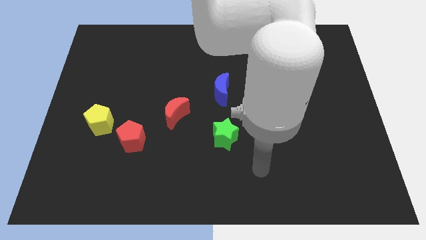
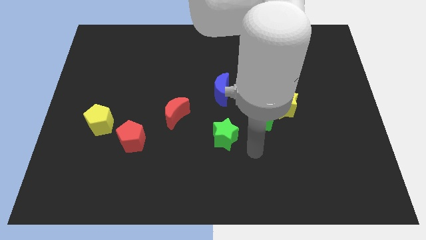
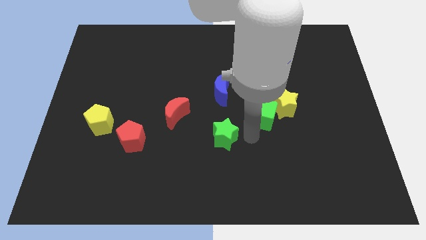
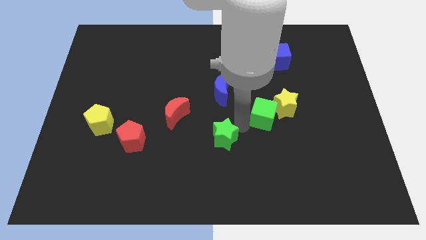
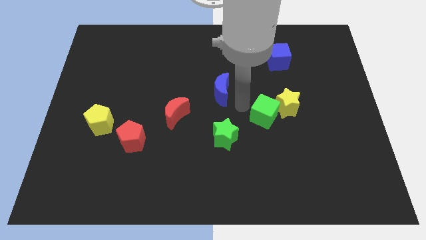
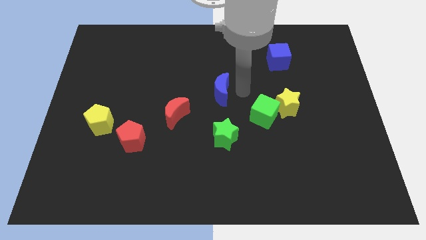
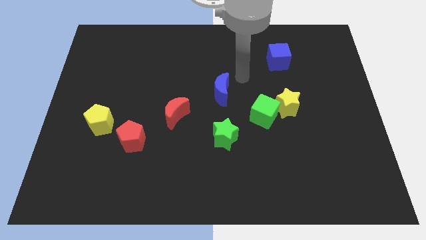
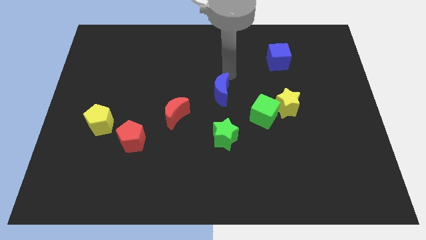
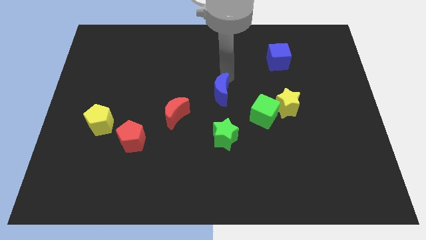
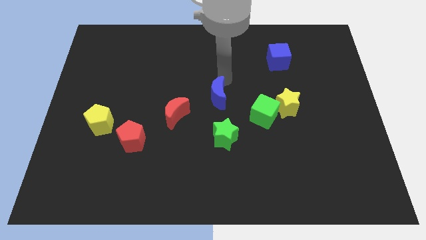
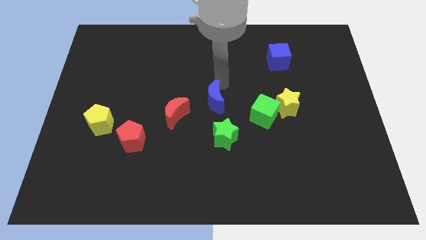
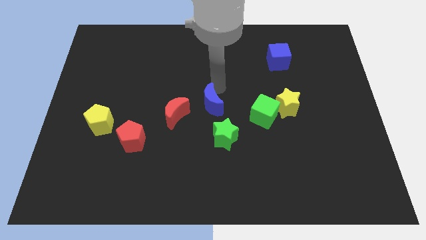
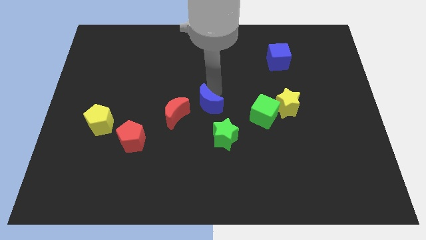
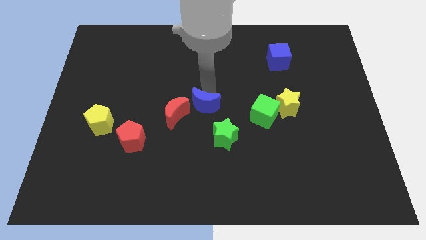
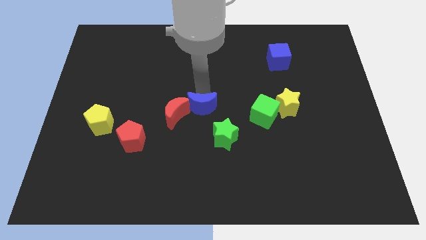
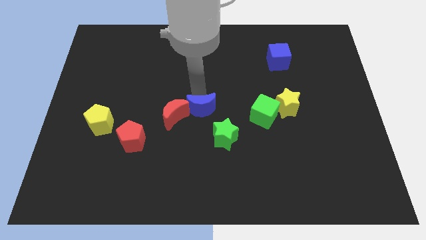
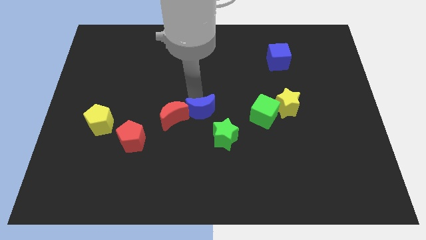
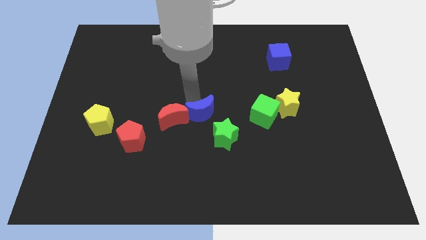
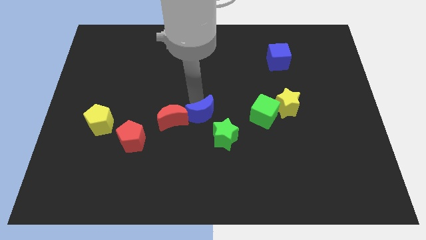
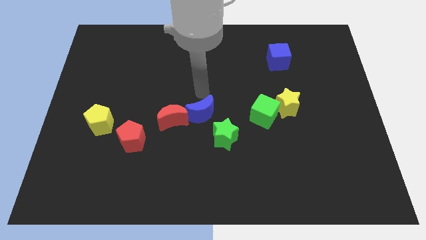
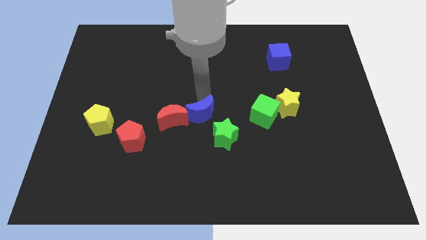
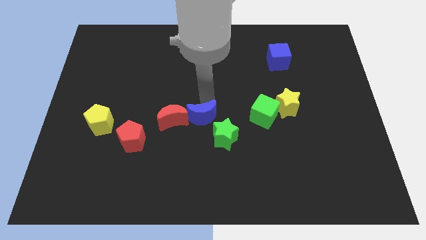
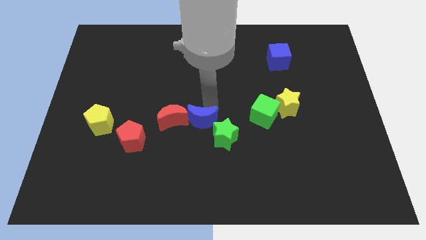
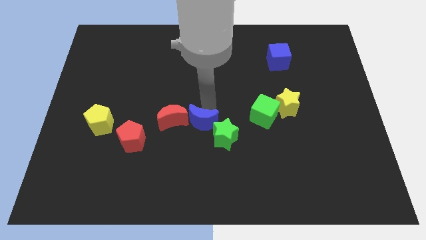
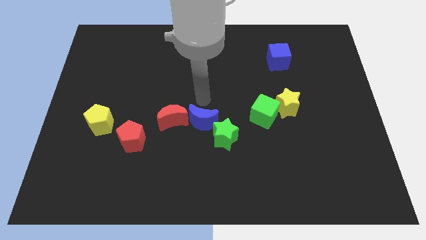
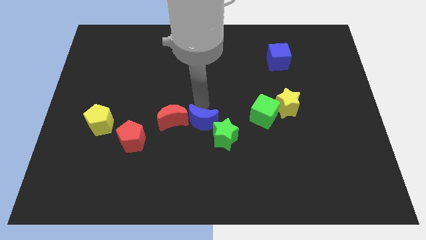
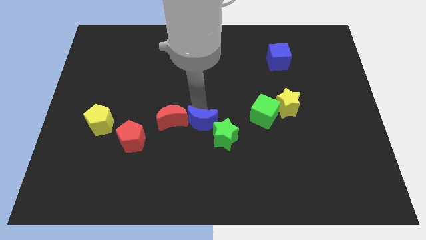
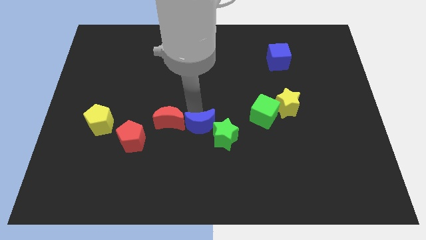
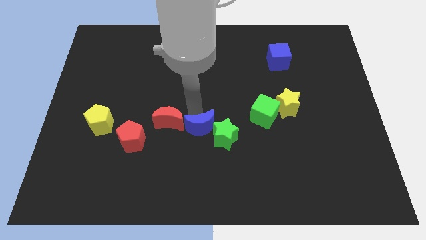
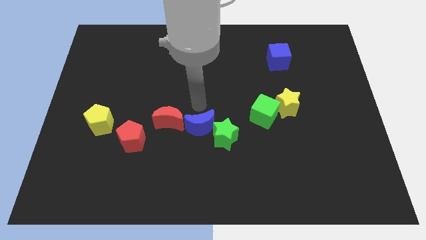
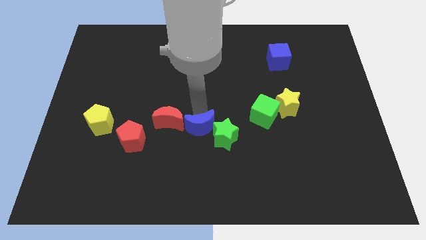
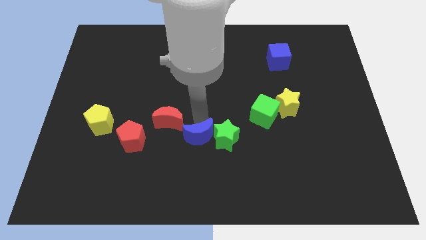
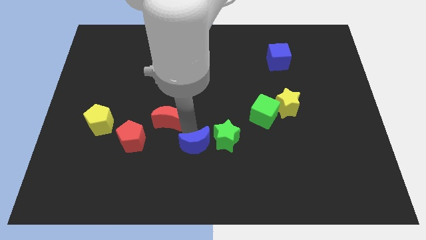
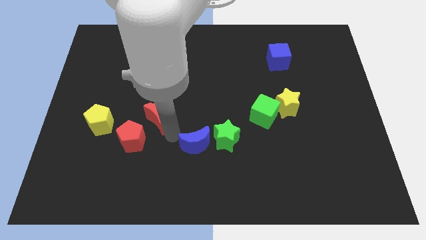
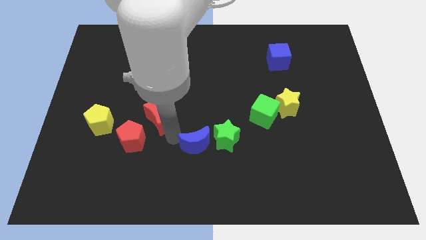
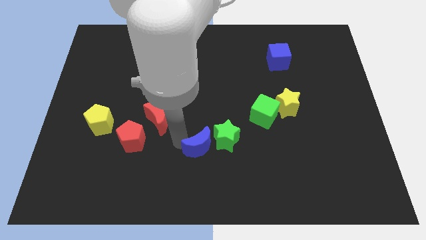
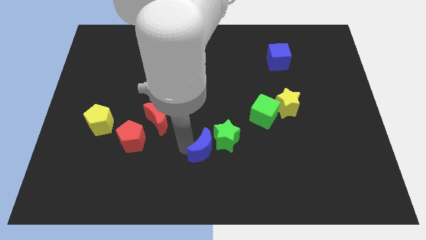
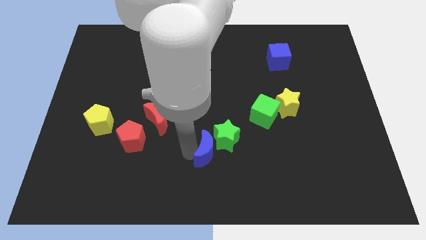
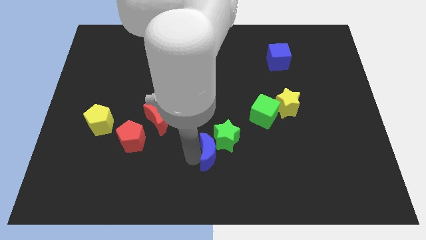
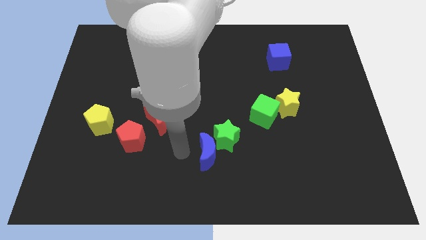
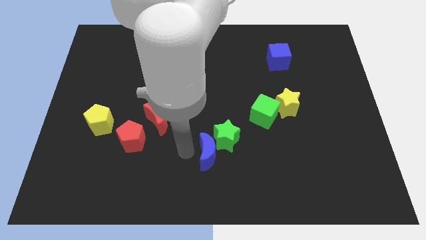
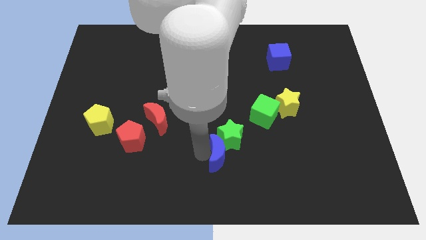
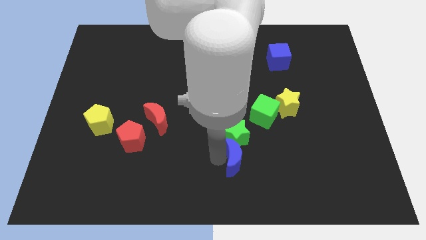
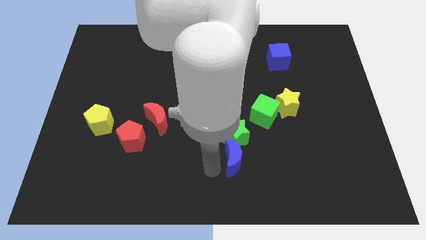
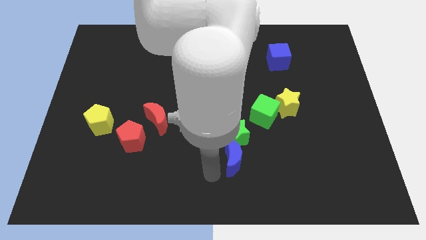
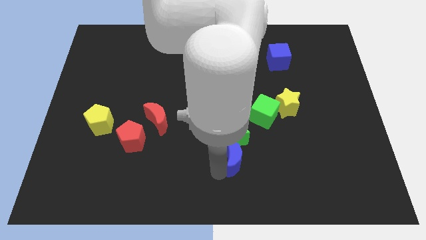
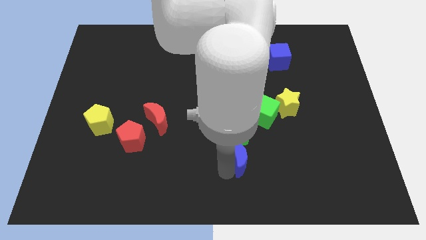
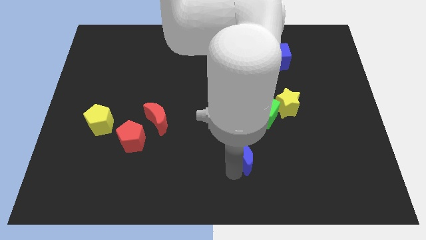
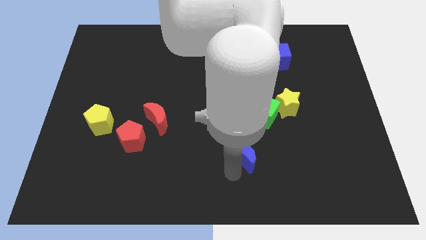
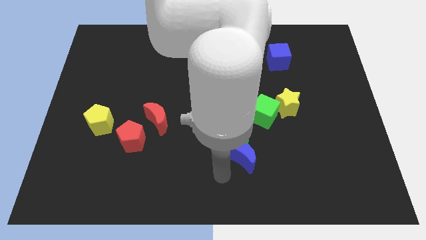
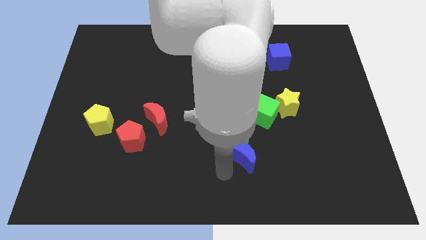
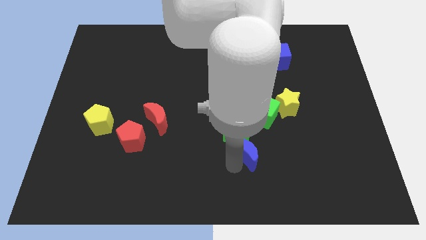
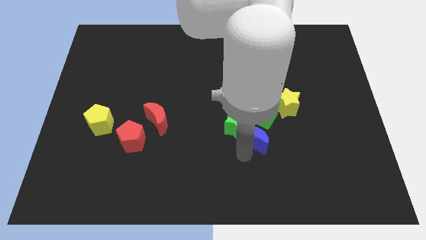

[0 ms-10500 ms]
push the blue moon to the right side of the green star

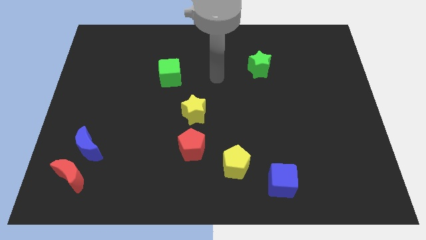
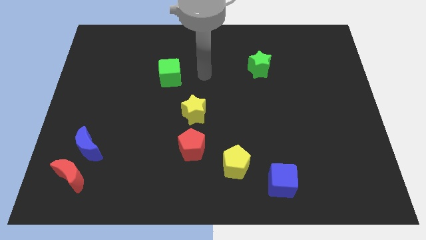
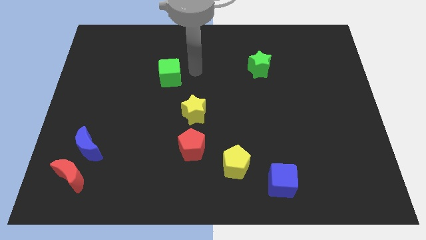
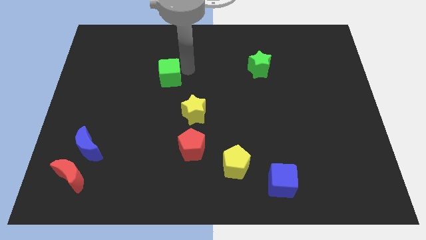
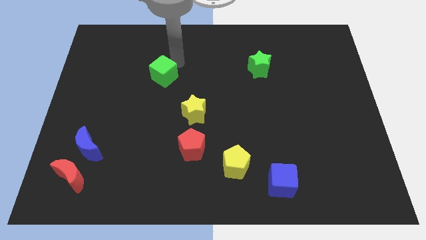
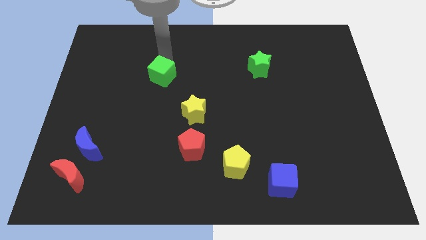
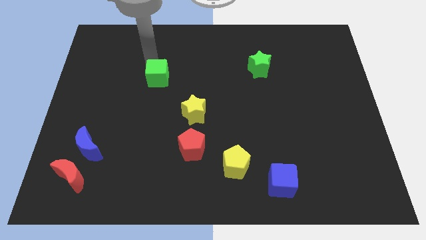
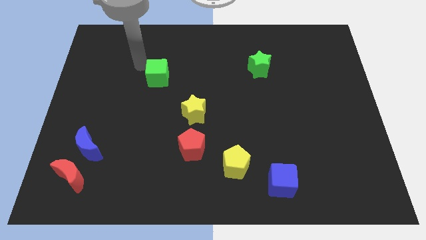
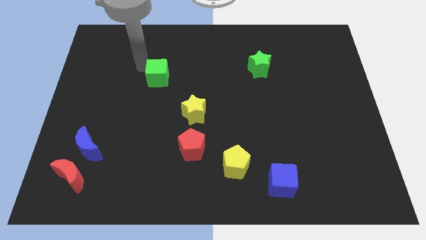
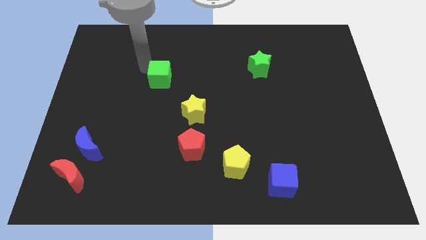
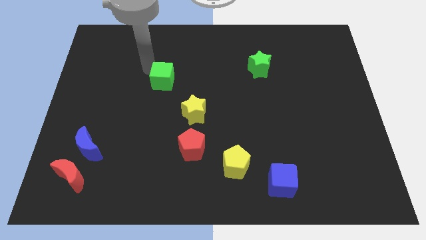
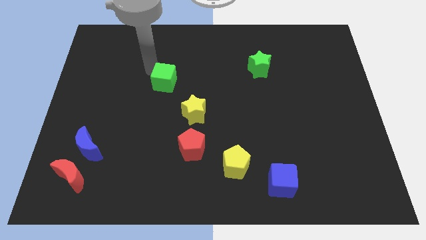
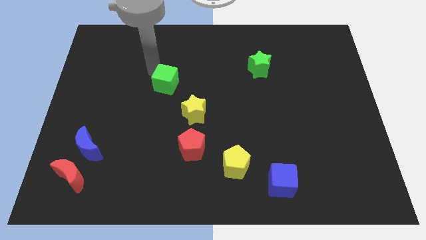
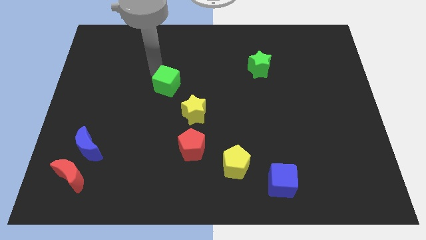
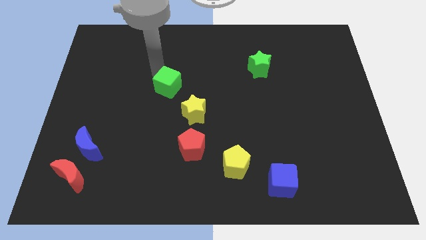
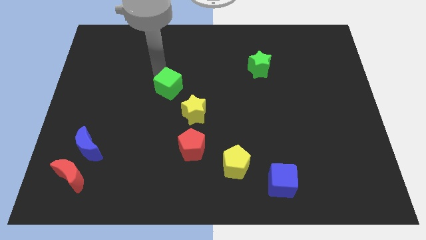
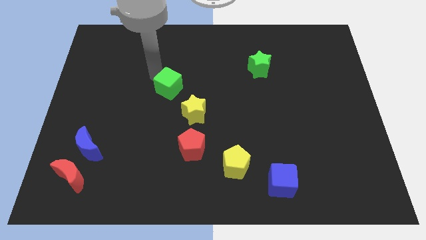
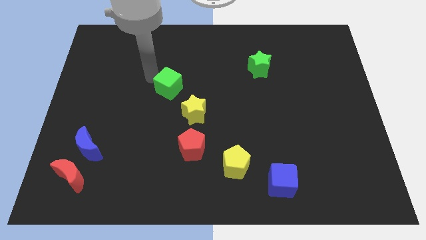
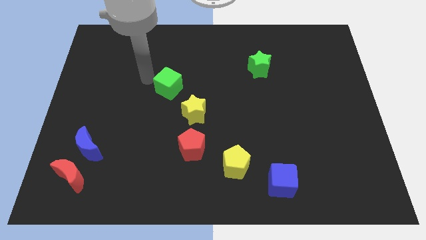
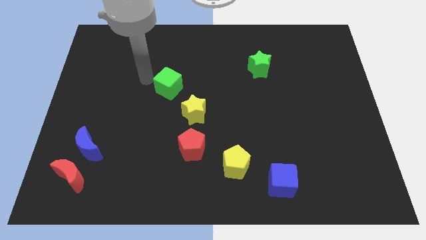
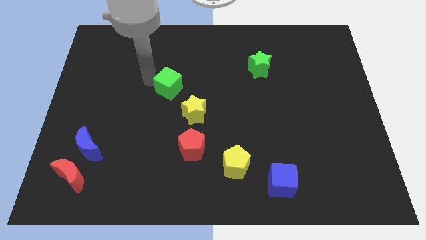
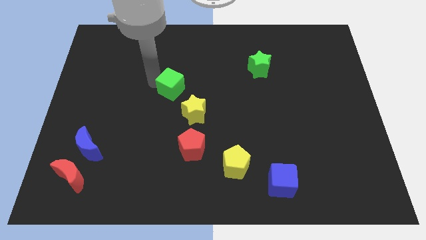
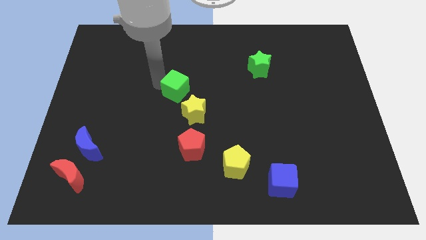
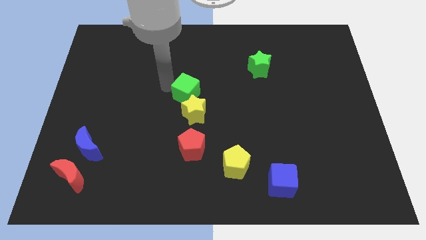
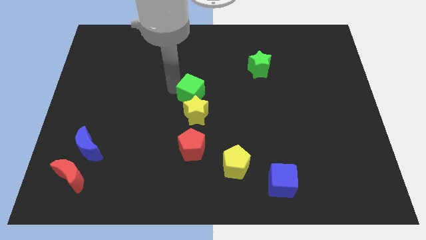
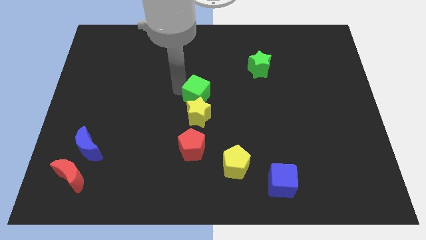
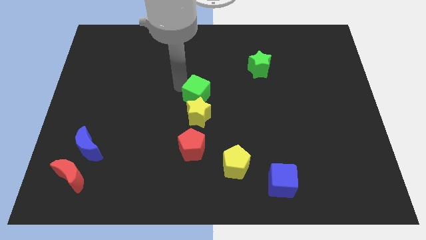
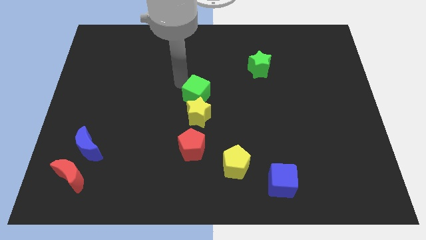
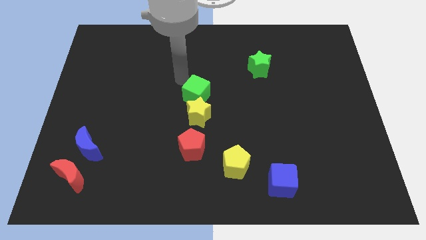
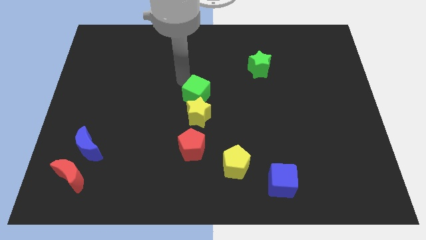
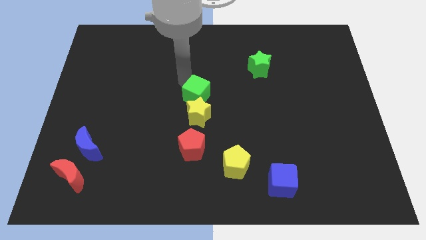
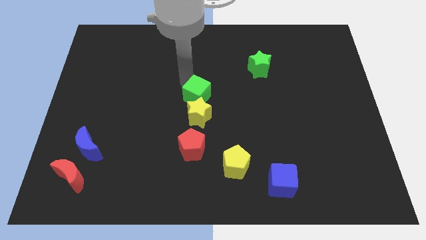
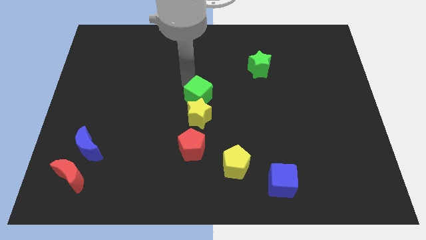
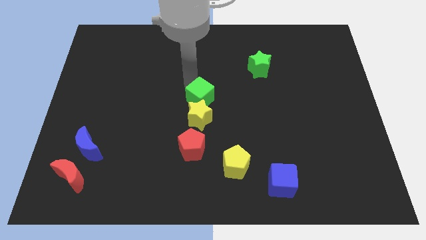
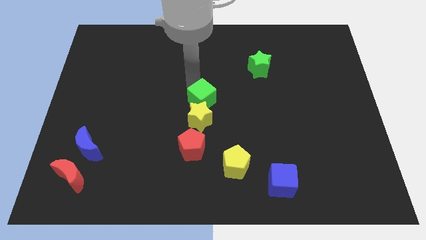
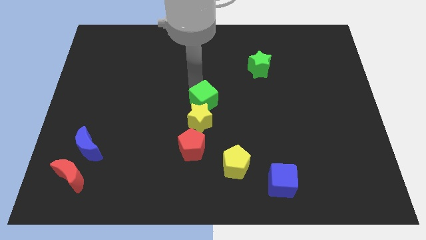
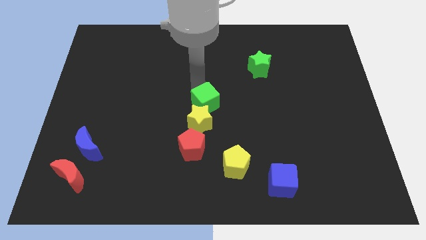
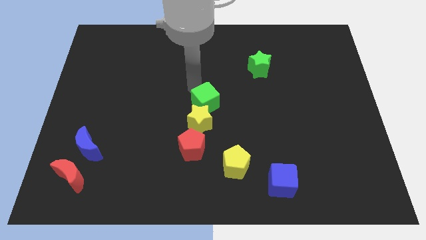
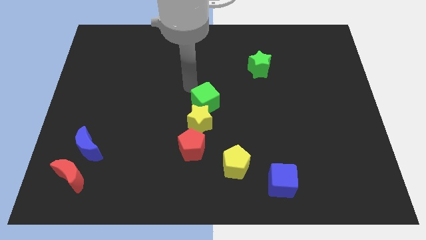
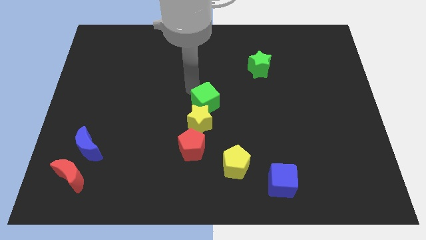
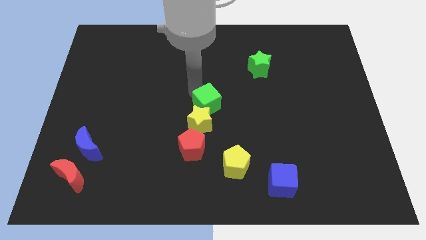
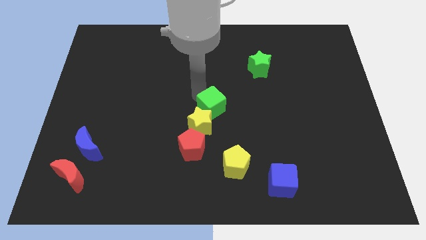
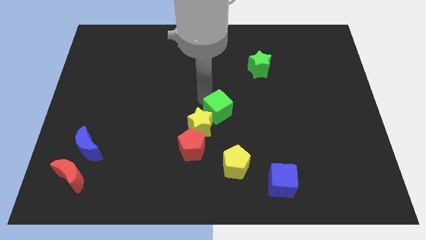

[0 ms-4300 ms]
move the green cube to the top right of the red pentagon
